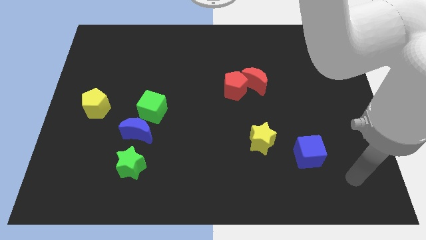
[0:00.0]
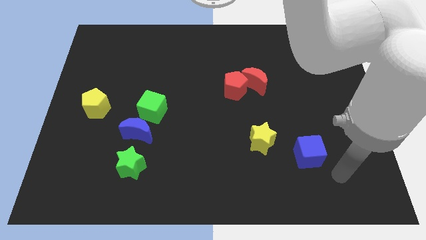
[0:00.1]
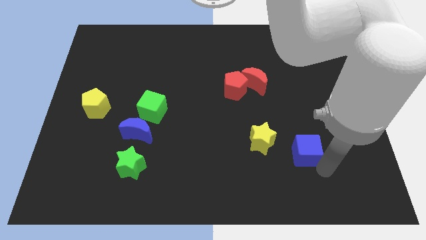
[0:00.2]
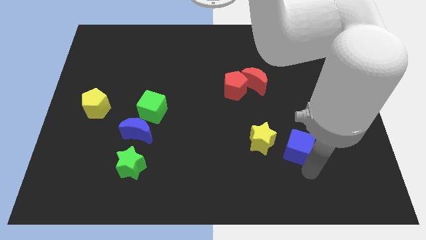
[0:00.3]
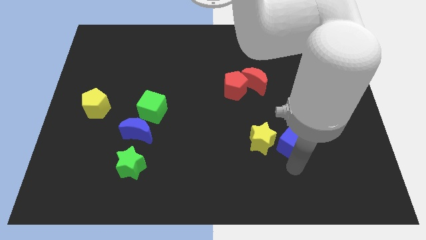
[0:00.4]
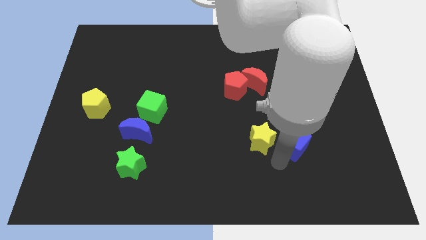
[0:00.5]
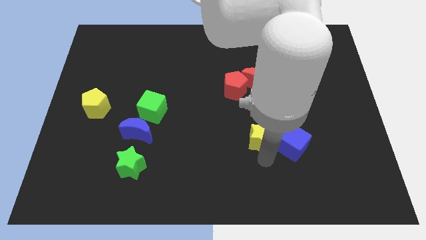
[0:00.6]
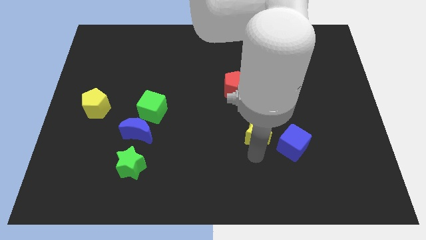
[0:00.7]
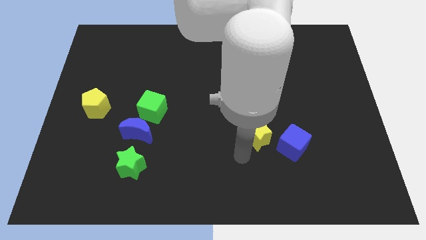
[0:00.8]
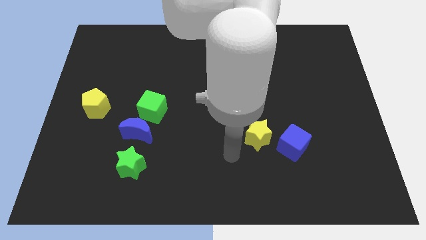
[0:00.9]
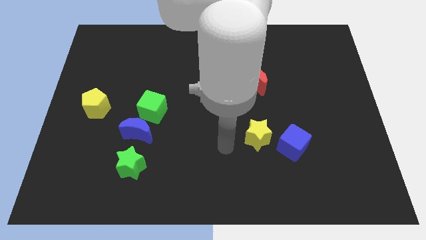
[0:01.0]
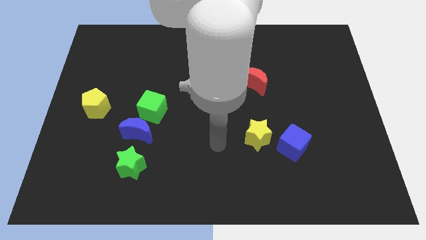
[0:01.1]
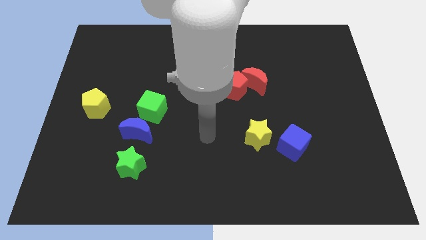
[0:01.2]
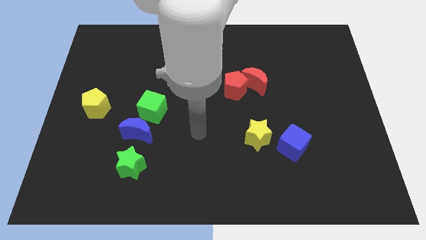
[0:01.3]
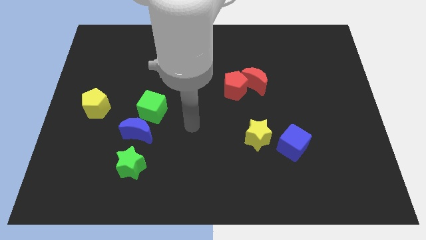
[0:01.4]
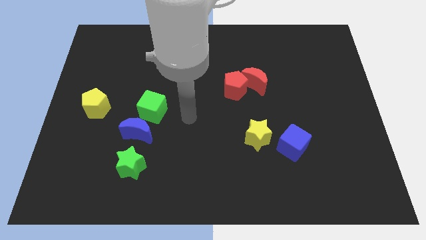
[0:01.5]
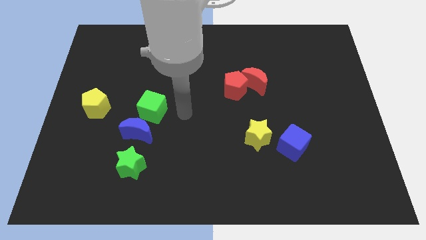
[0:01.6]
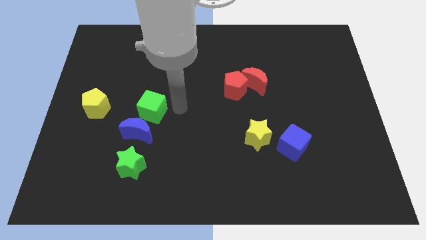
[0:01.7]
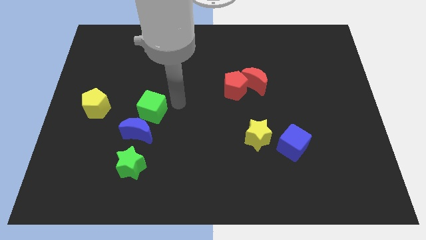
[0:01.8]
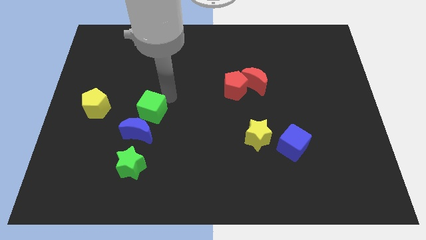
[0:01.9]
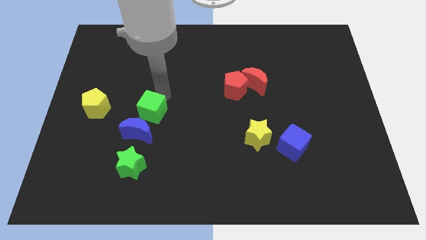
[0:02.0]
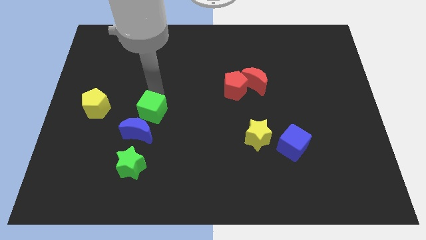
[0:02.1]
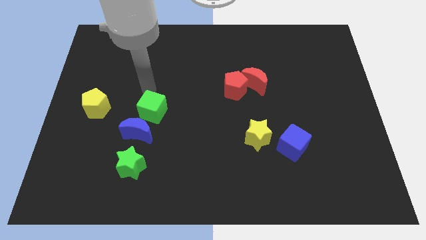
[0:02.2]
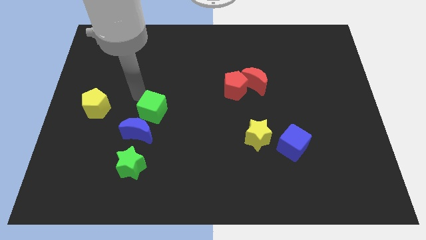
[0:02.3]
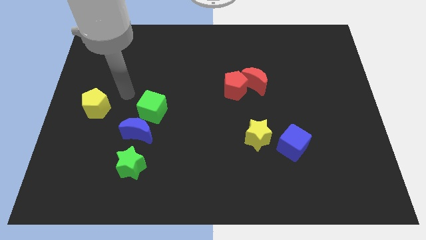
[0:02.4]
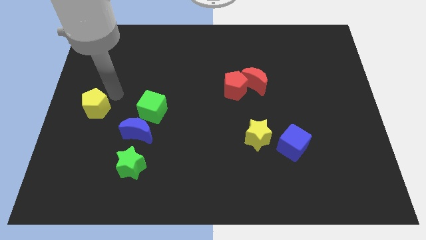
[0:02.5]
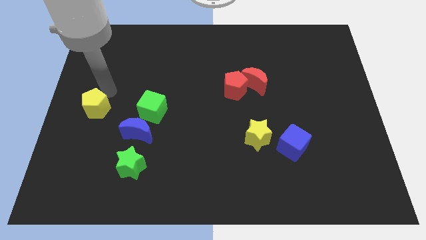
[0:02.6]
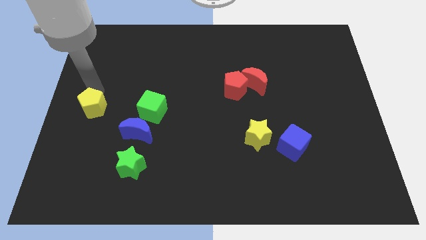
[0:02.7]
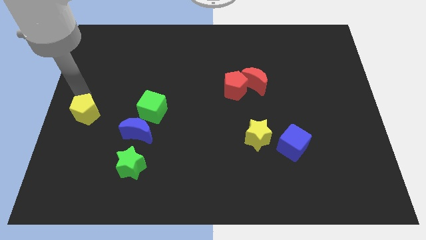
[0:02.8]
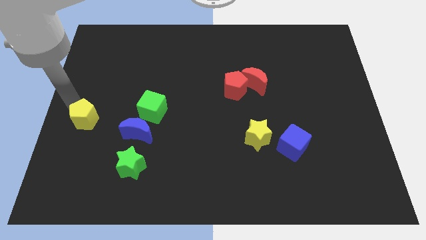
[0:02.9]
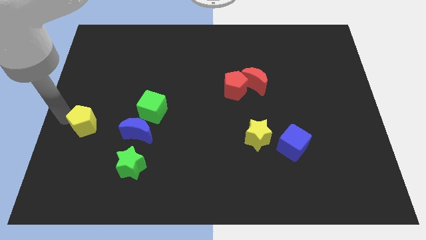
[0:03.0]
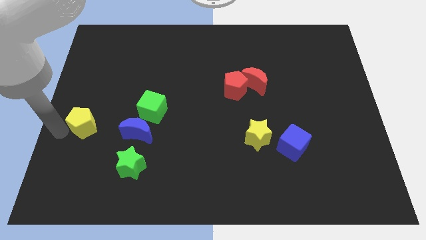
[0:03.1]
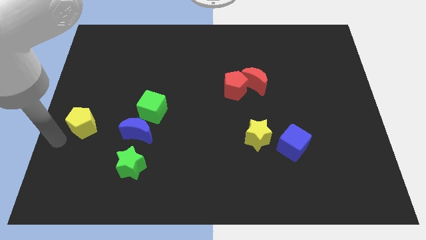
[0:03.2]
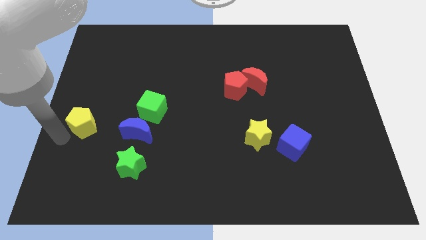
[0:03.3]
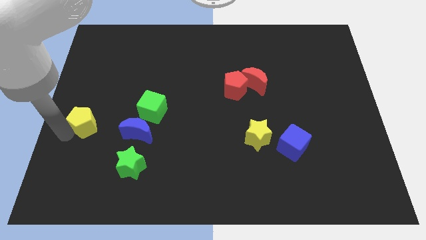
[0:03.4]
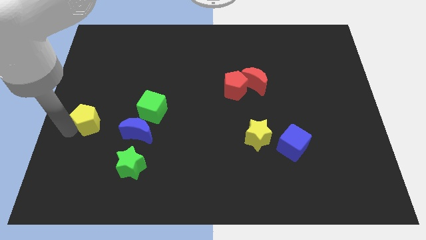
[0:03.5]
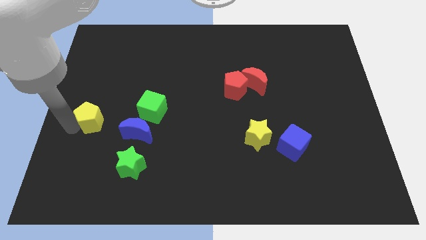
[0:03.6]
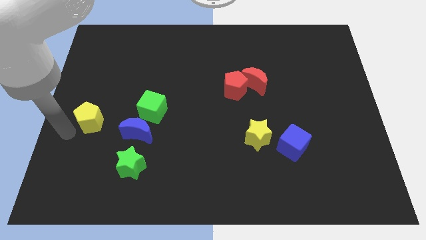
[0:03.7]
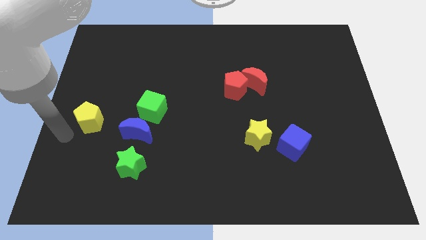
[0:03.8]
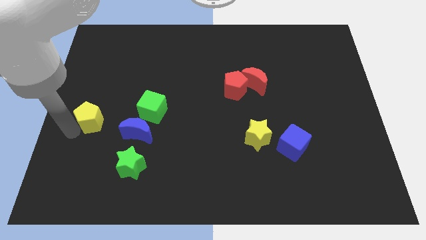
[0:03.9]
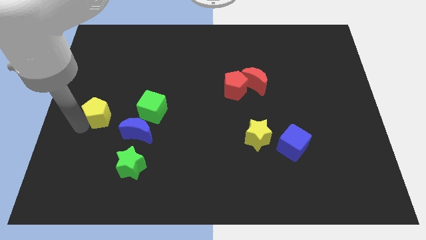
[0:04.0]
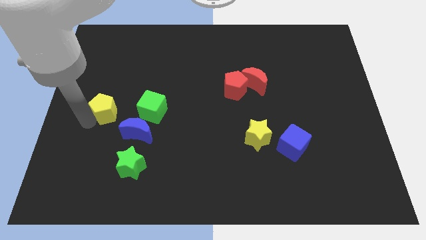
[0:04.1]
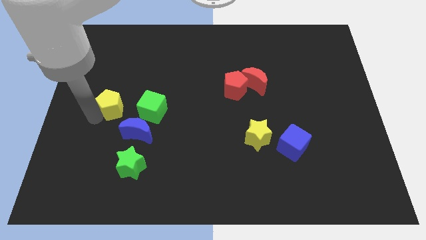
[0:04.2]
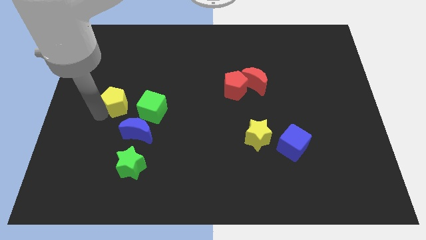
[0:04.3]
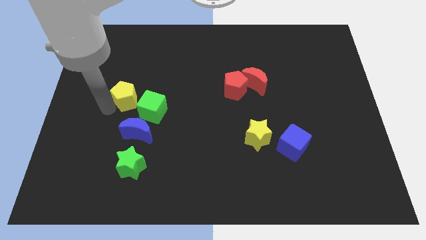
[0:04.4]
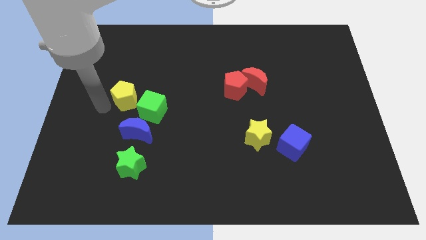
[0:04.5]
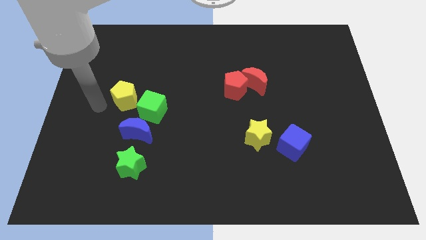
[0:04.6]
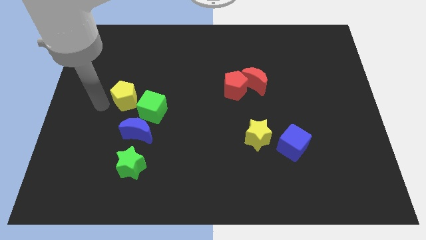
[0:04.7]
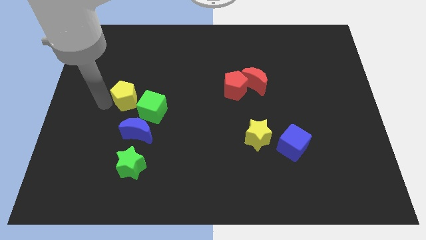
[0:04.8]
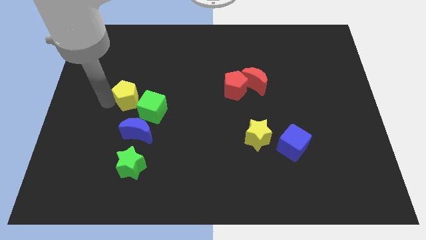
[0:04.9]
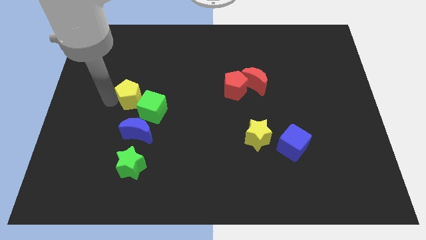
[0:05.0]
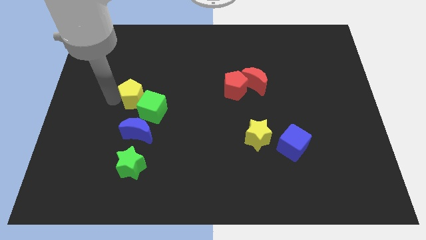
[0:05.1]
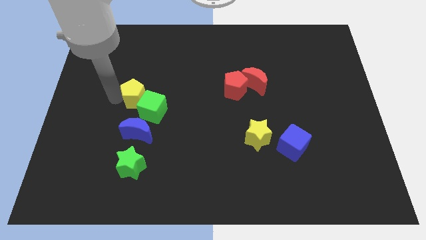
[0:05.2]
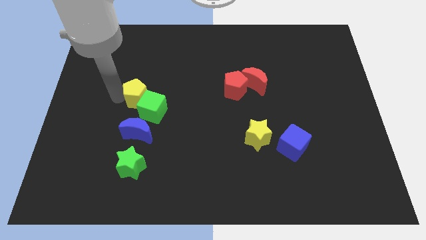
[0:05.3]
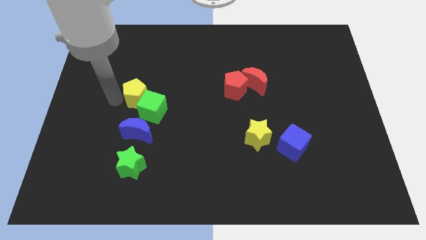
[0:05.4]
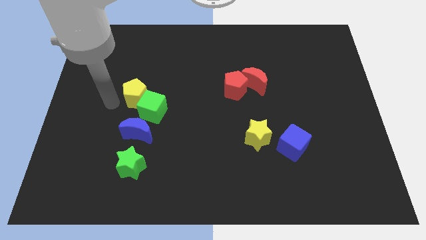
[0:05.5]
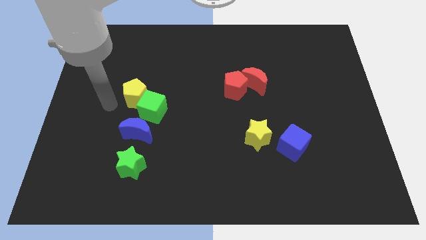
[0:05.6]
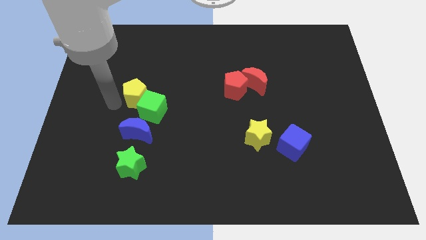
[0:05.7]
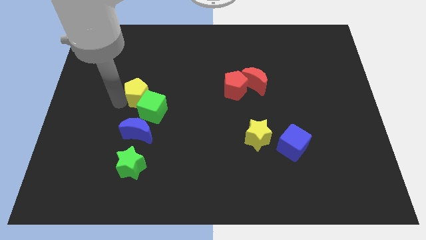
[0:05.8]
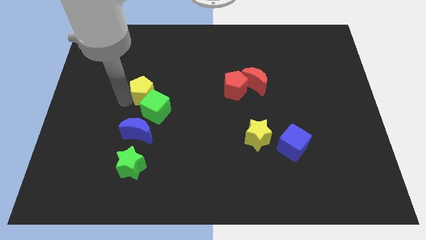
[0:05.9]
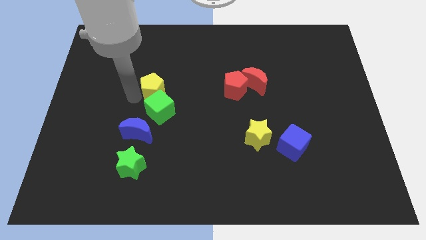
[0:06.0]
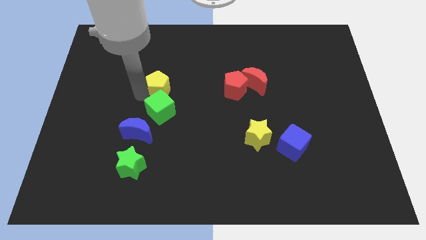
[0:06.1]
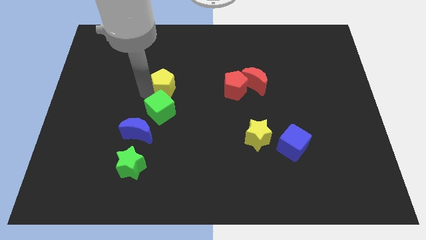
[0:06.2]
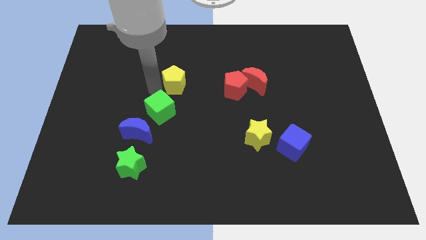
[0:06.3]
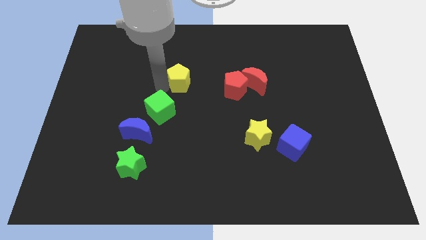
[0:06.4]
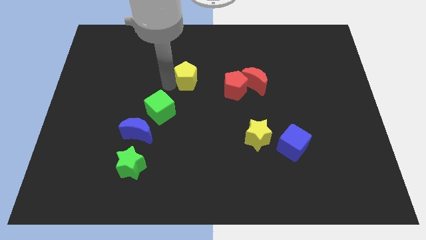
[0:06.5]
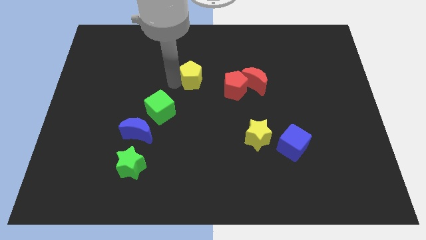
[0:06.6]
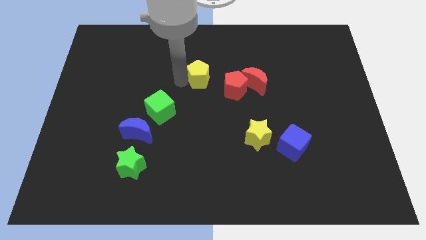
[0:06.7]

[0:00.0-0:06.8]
move the yellow pentagon diagonally up and to the left of the red pentagon

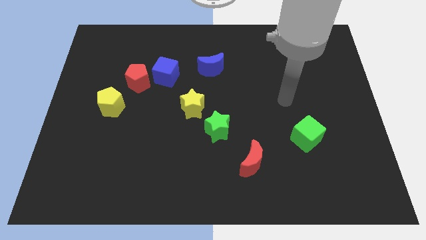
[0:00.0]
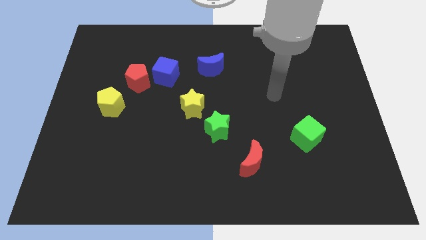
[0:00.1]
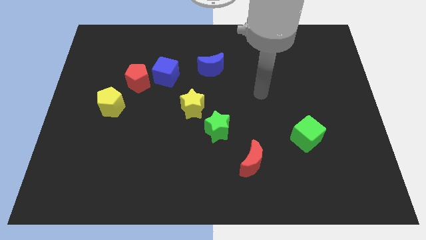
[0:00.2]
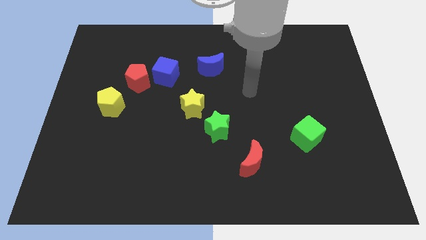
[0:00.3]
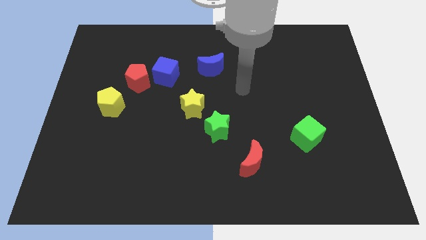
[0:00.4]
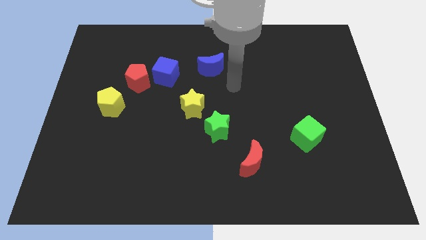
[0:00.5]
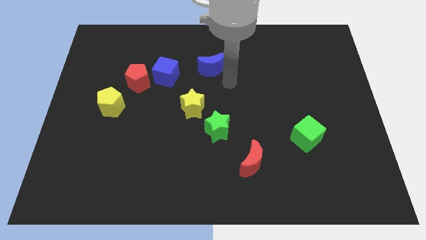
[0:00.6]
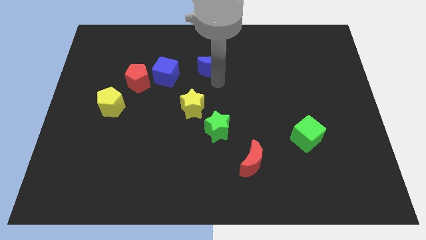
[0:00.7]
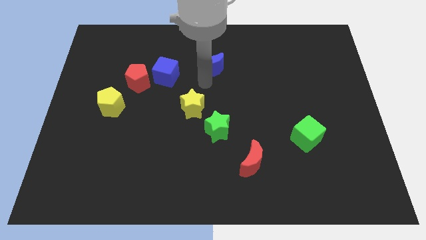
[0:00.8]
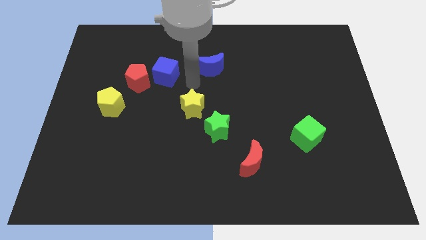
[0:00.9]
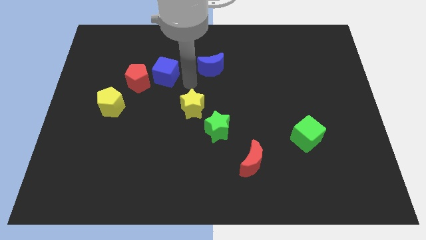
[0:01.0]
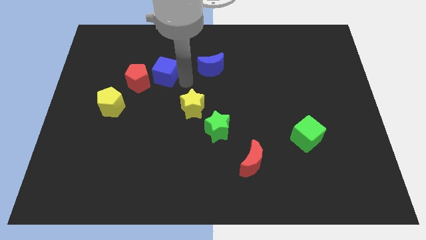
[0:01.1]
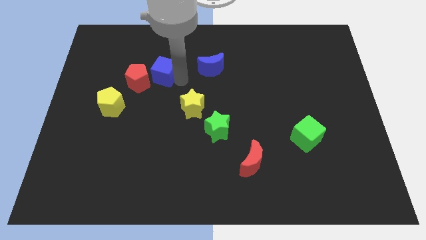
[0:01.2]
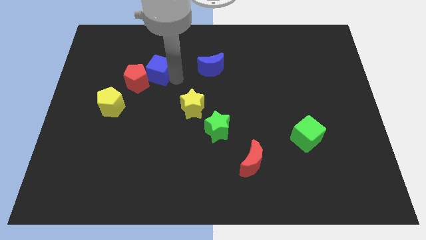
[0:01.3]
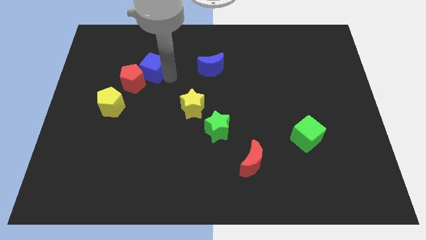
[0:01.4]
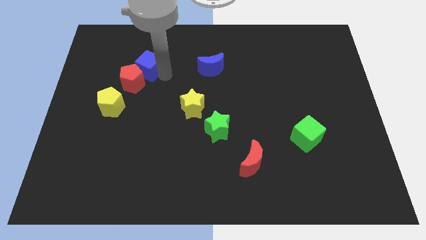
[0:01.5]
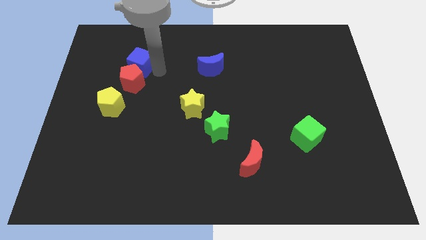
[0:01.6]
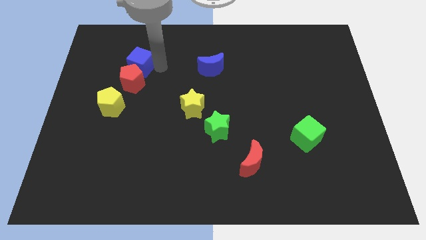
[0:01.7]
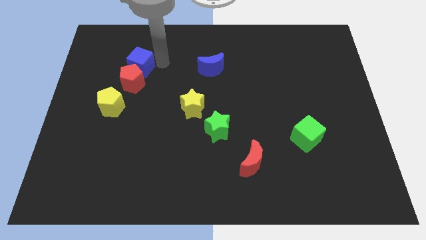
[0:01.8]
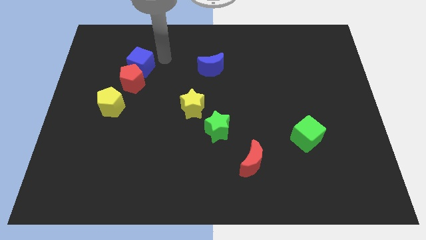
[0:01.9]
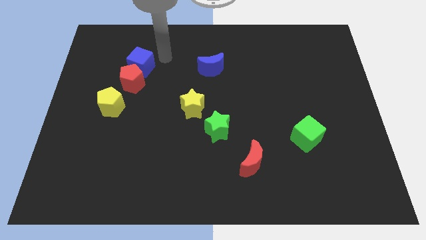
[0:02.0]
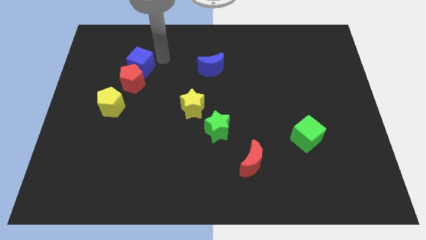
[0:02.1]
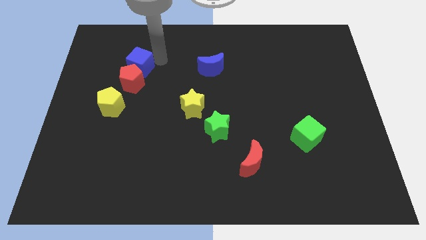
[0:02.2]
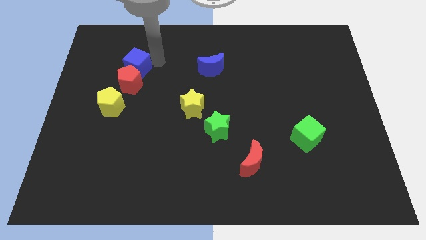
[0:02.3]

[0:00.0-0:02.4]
slide the blue cube to the top of the yellow pentagon
